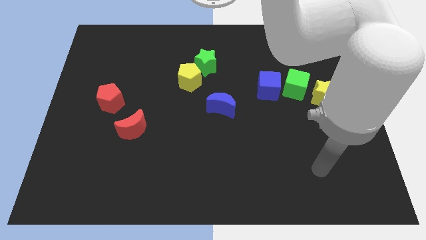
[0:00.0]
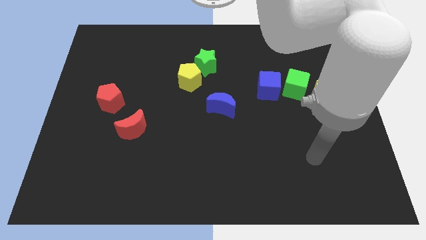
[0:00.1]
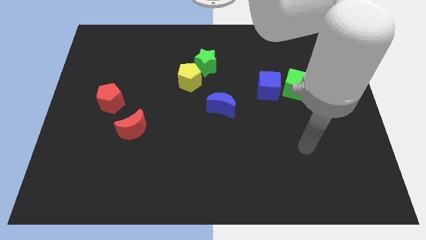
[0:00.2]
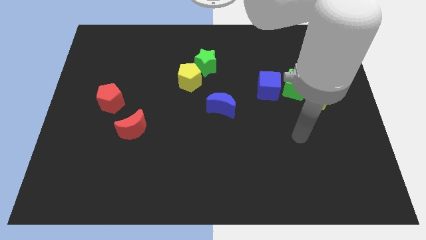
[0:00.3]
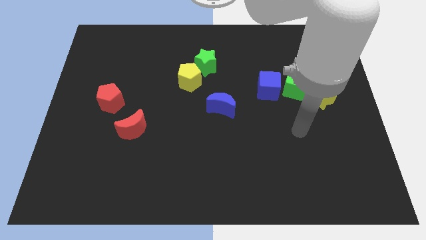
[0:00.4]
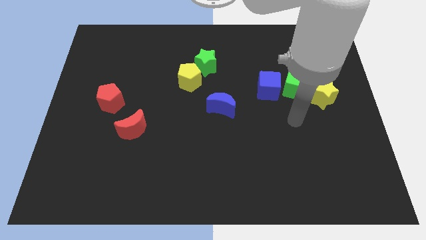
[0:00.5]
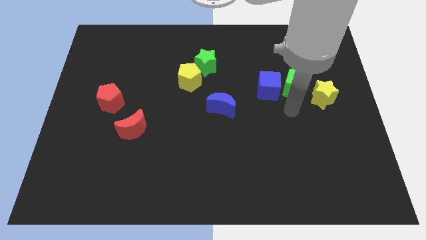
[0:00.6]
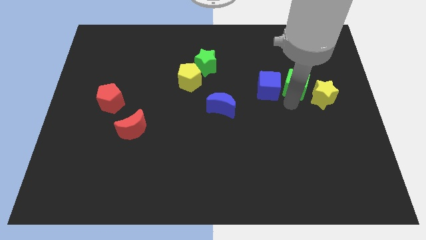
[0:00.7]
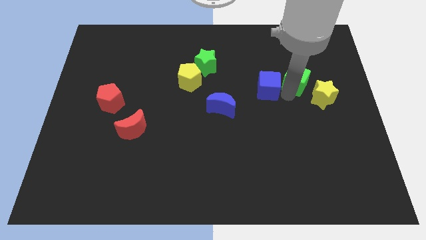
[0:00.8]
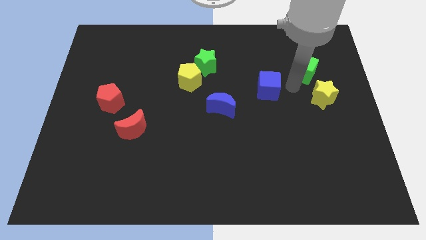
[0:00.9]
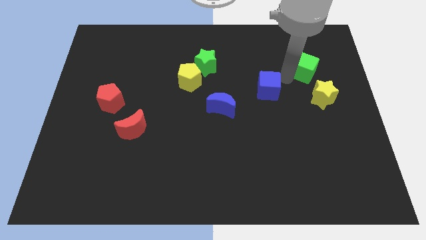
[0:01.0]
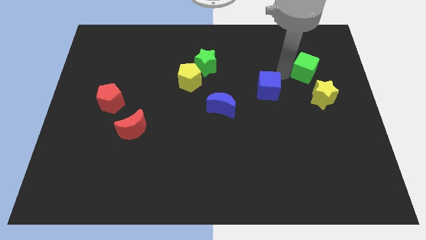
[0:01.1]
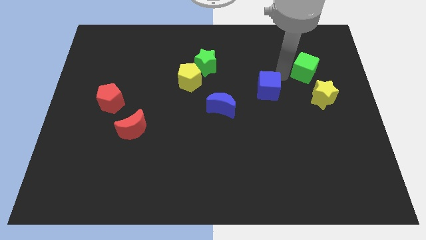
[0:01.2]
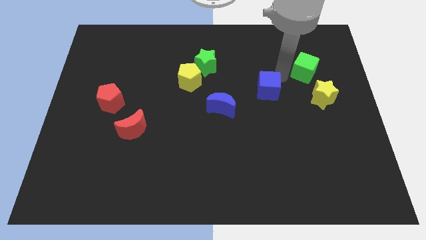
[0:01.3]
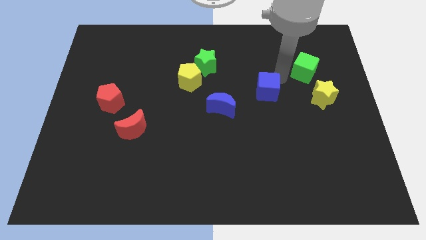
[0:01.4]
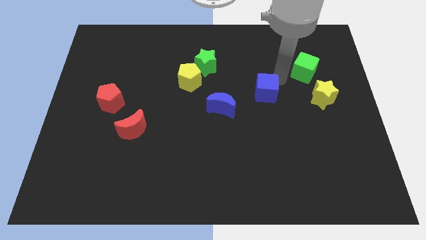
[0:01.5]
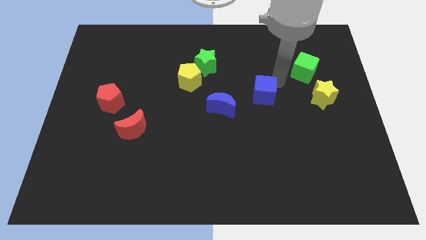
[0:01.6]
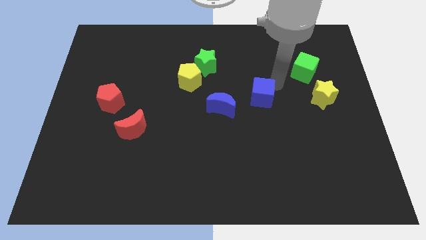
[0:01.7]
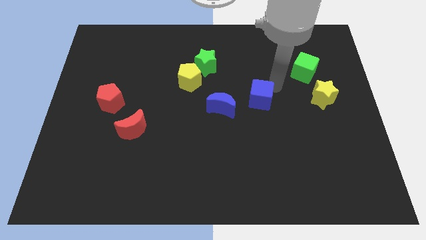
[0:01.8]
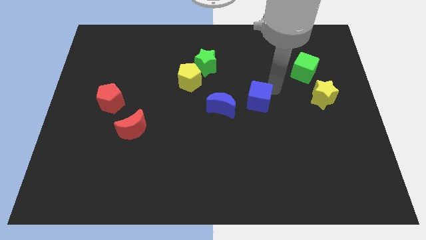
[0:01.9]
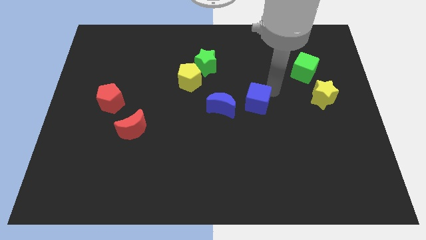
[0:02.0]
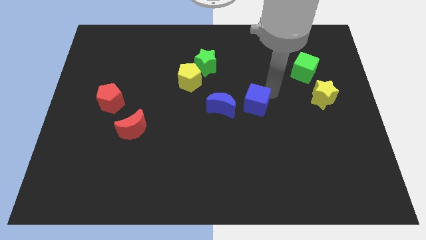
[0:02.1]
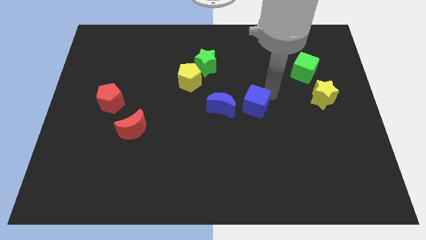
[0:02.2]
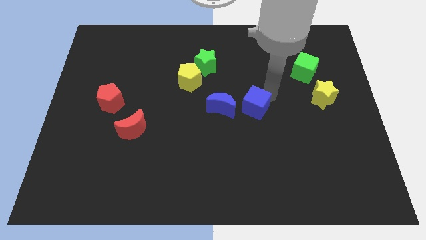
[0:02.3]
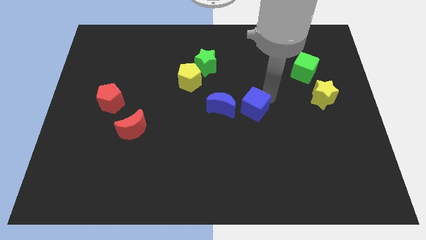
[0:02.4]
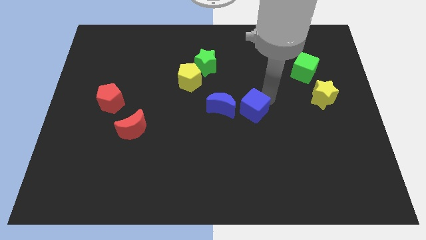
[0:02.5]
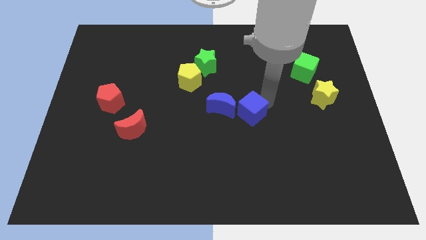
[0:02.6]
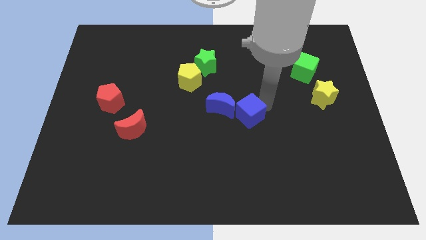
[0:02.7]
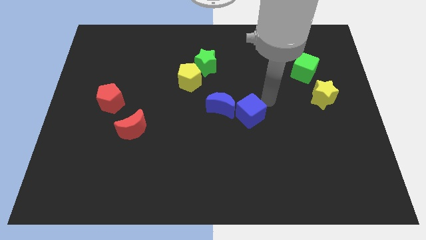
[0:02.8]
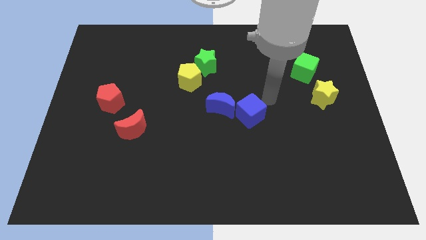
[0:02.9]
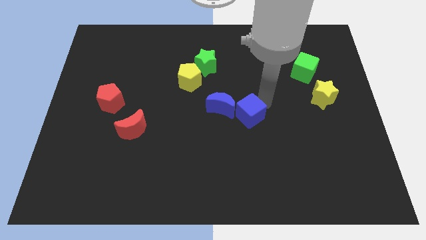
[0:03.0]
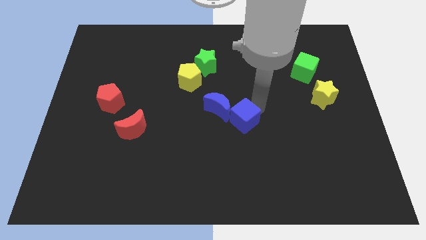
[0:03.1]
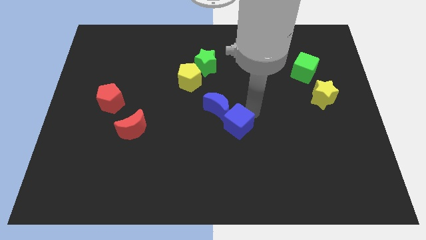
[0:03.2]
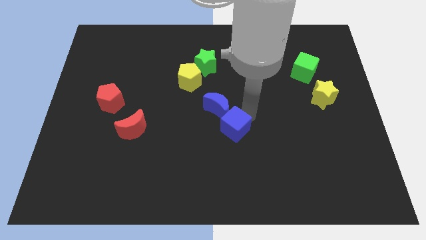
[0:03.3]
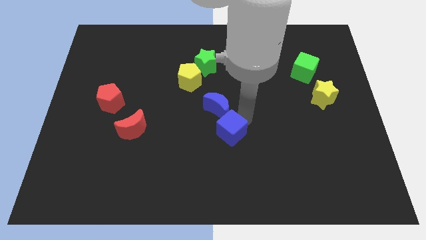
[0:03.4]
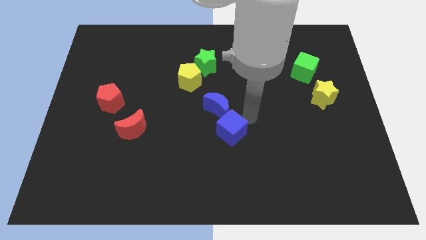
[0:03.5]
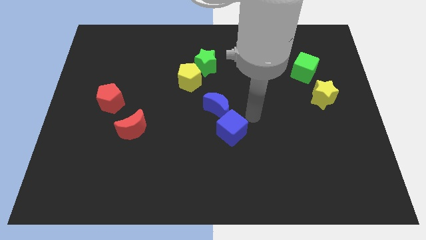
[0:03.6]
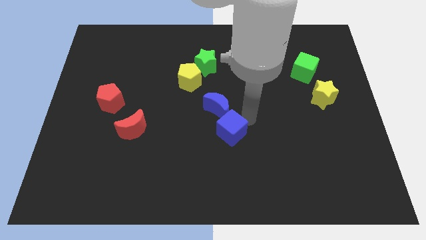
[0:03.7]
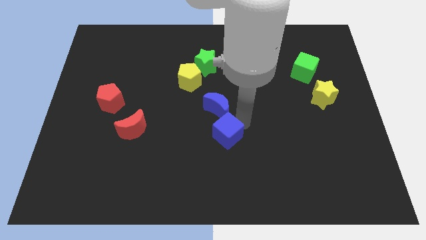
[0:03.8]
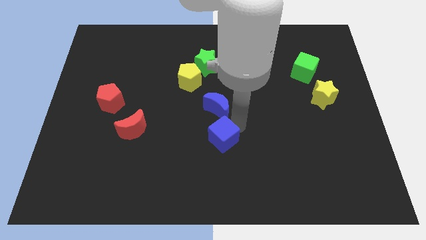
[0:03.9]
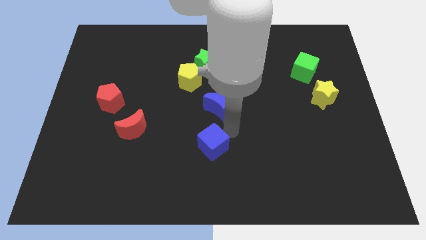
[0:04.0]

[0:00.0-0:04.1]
slide the blue cube downwards and to the left

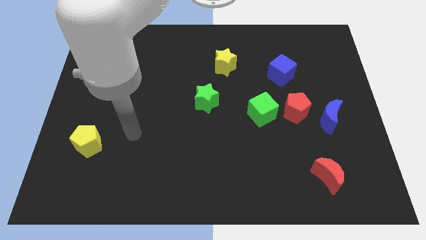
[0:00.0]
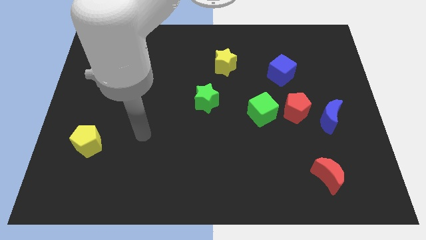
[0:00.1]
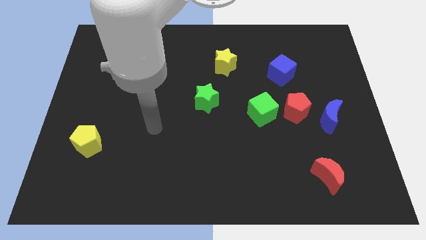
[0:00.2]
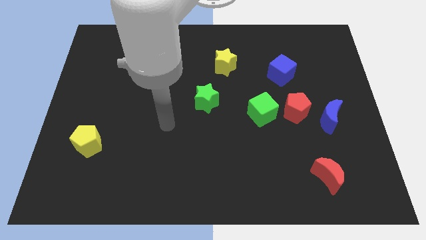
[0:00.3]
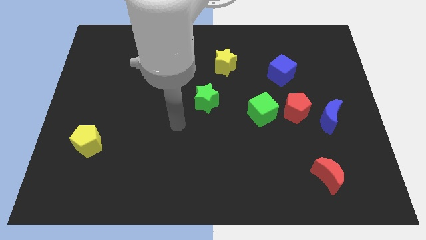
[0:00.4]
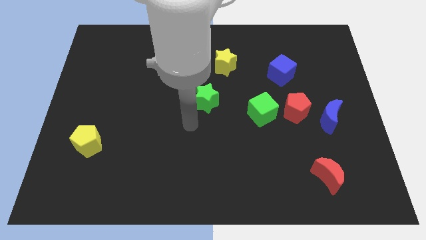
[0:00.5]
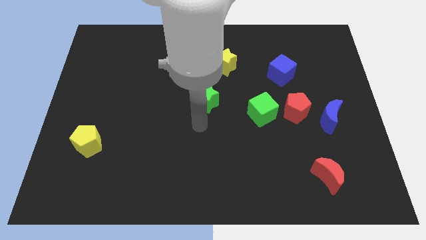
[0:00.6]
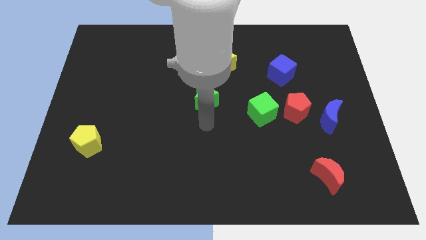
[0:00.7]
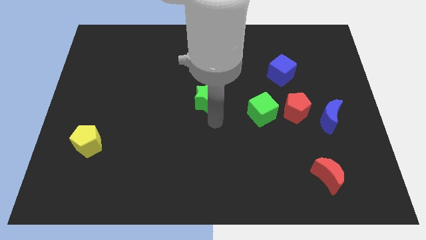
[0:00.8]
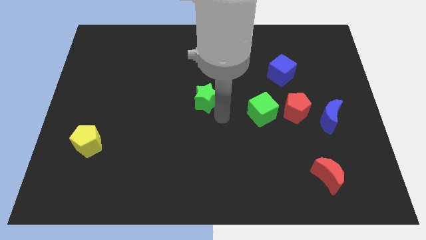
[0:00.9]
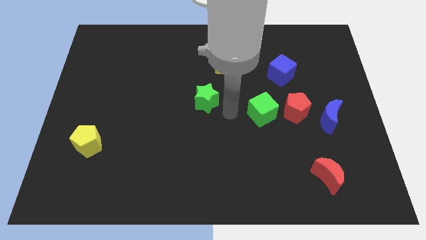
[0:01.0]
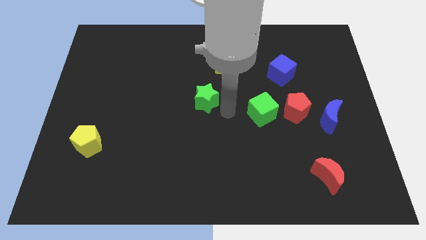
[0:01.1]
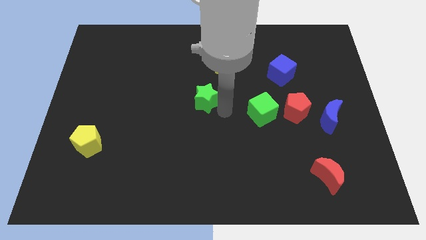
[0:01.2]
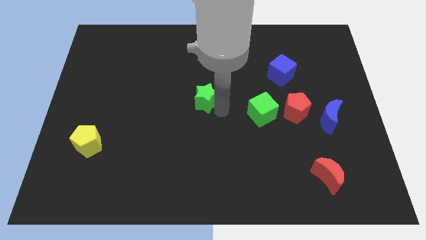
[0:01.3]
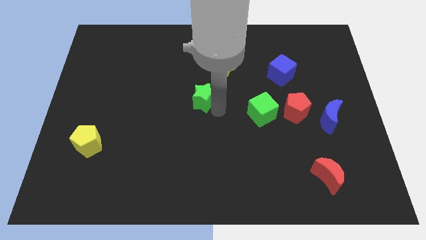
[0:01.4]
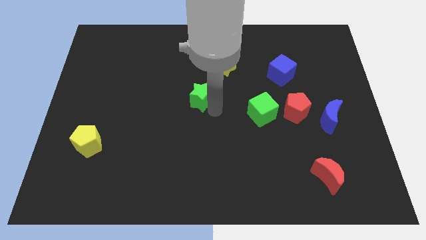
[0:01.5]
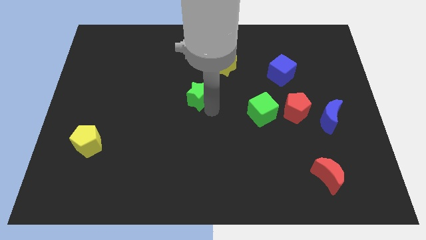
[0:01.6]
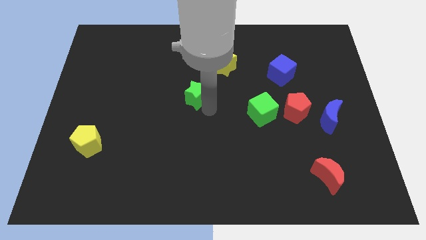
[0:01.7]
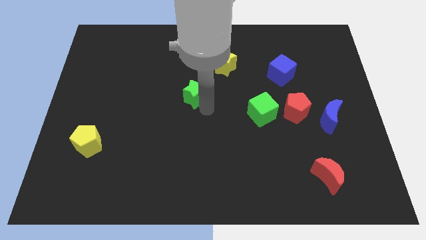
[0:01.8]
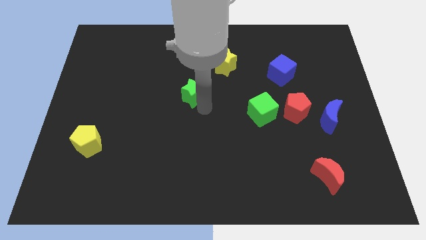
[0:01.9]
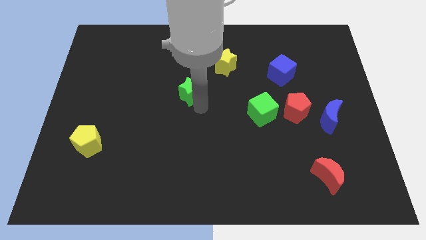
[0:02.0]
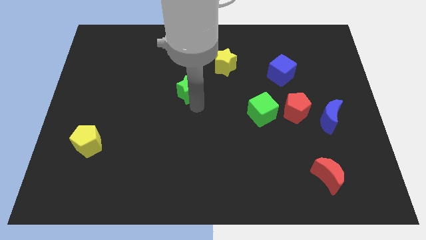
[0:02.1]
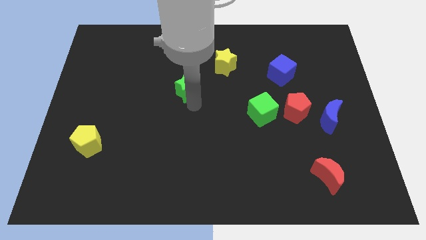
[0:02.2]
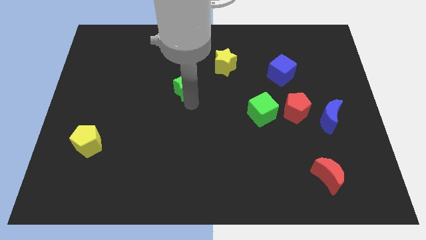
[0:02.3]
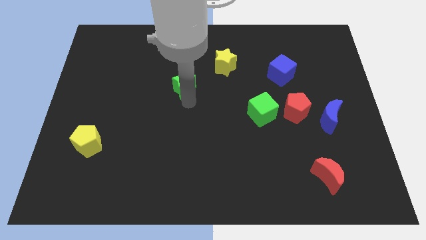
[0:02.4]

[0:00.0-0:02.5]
slightly push the green star diagonally up and to the left

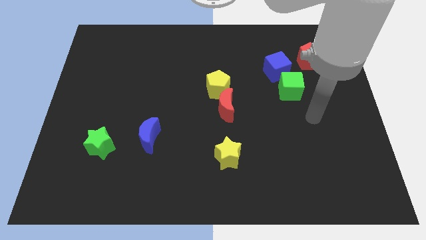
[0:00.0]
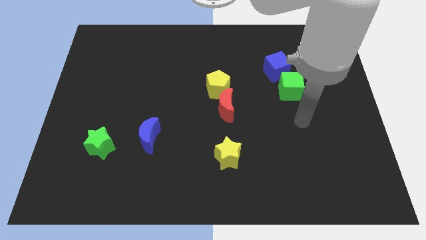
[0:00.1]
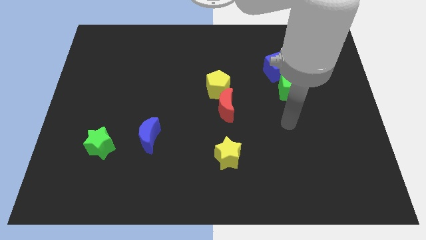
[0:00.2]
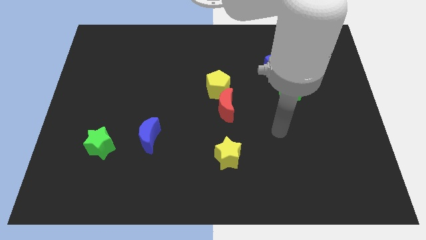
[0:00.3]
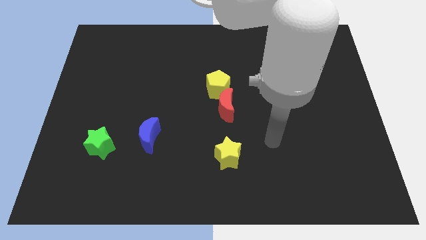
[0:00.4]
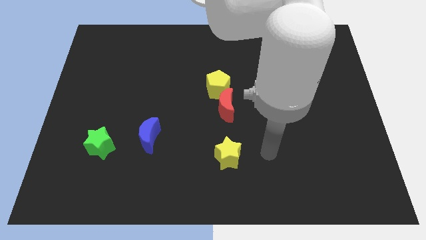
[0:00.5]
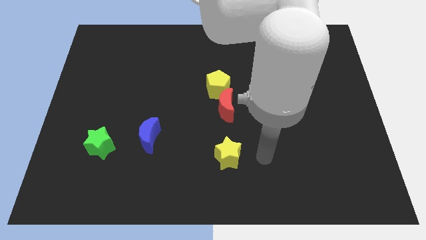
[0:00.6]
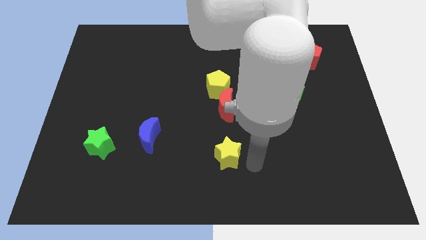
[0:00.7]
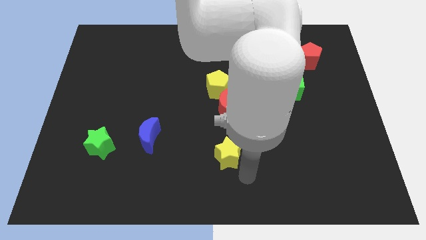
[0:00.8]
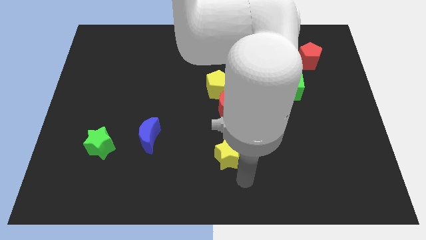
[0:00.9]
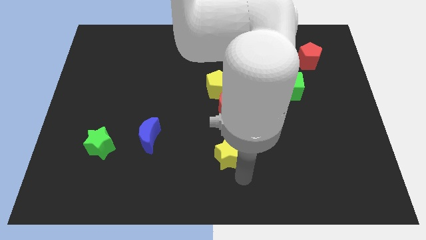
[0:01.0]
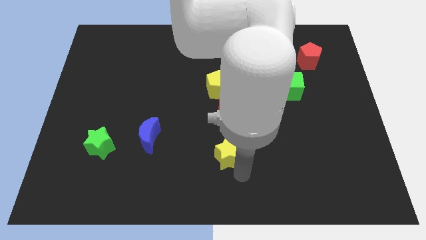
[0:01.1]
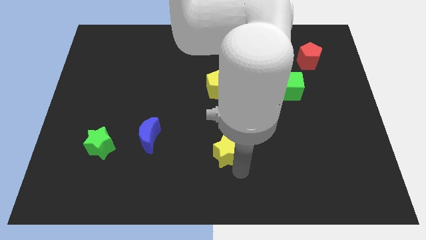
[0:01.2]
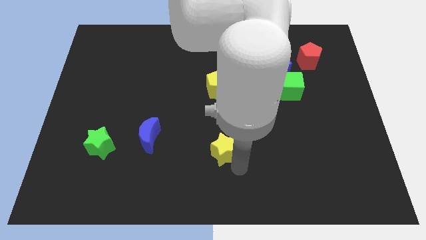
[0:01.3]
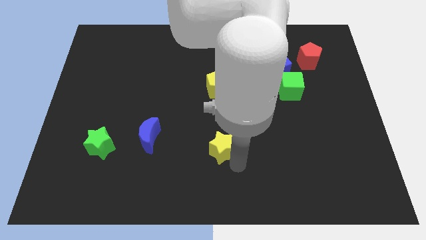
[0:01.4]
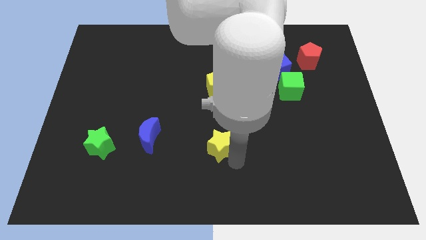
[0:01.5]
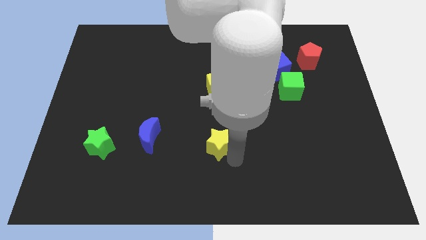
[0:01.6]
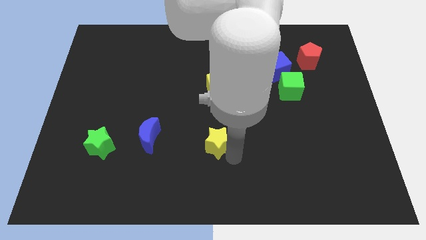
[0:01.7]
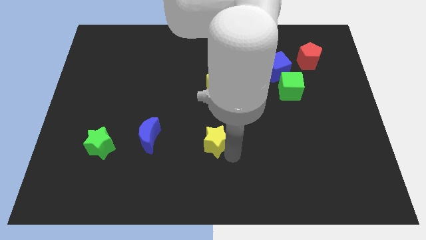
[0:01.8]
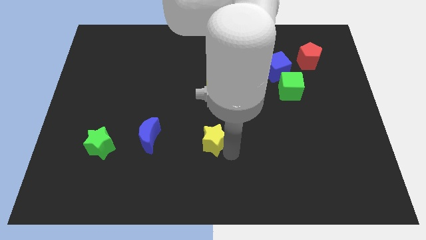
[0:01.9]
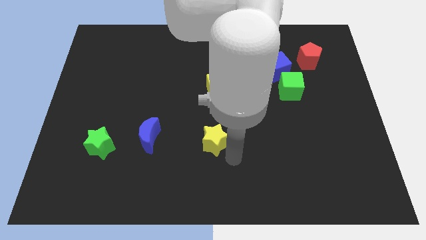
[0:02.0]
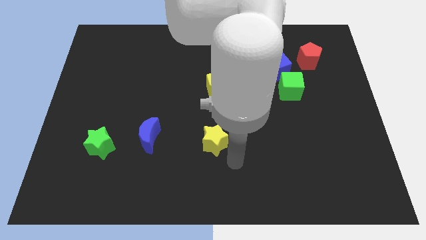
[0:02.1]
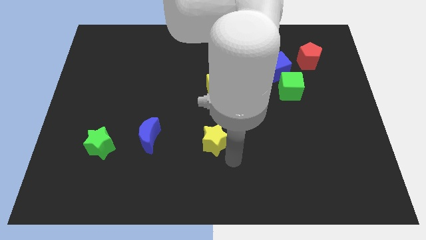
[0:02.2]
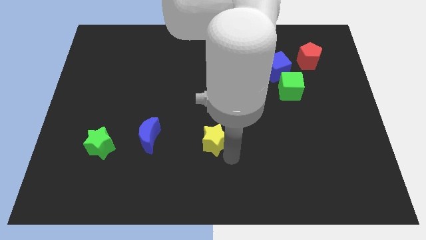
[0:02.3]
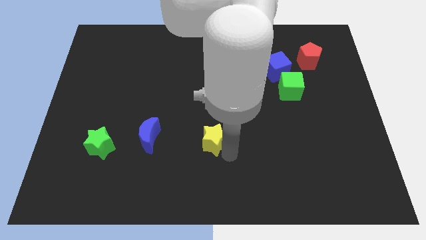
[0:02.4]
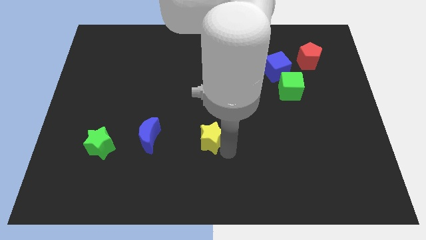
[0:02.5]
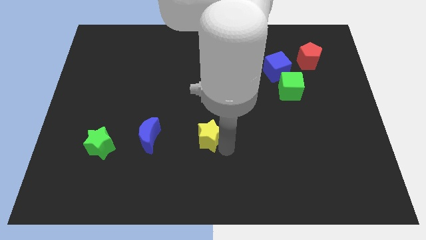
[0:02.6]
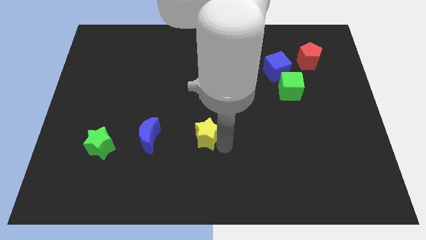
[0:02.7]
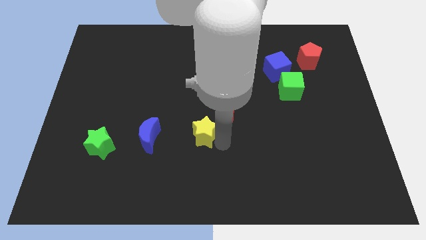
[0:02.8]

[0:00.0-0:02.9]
slide the yellow star a bit upwards and then left
